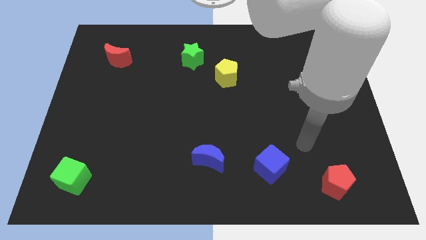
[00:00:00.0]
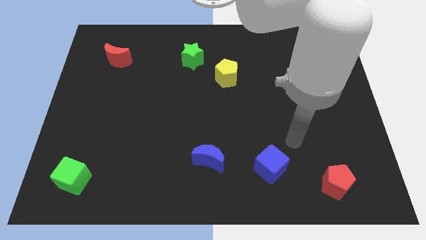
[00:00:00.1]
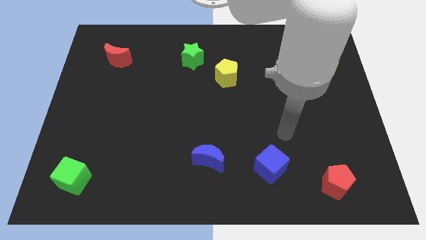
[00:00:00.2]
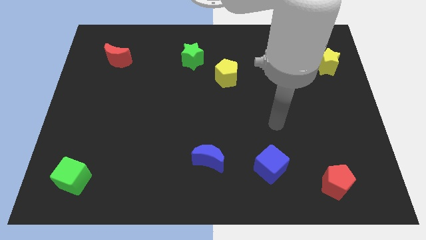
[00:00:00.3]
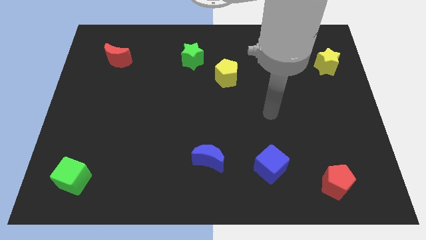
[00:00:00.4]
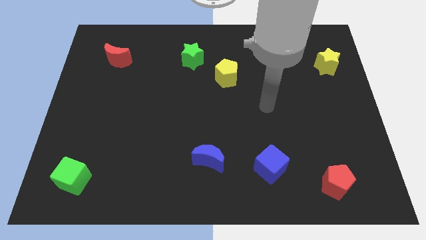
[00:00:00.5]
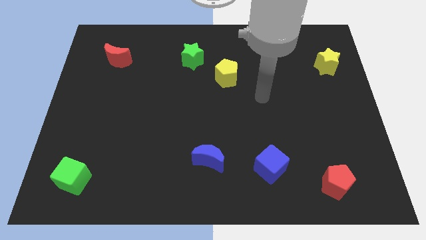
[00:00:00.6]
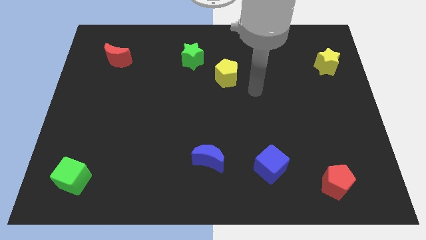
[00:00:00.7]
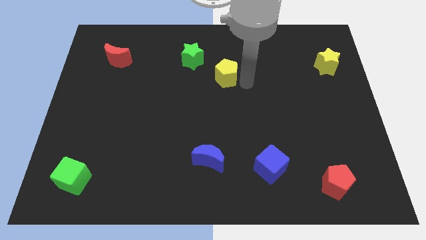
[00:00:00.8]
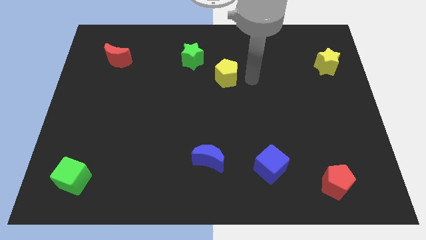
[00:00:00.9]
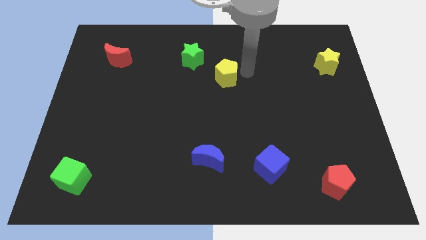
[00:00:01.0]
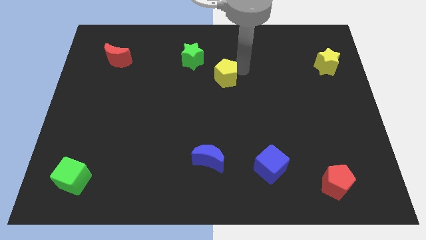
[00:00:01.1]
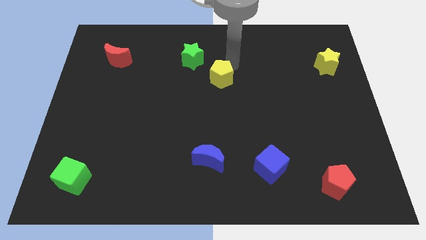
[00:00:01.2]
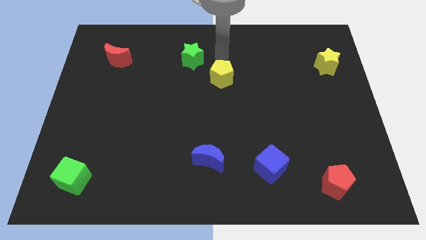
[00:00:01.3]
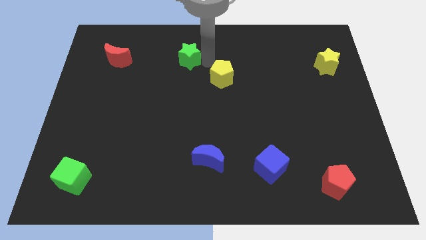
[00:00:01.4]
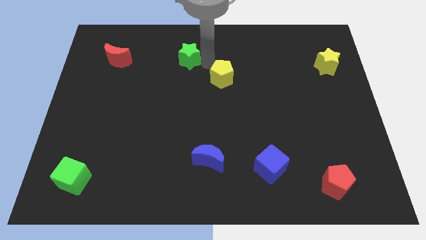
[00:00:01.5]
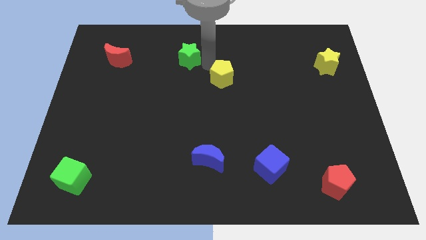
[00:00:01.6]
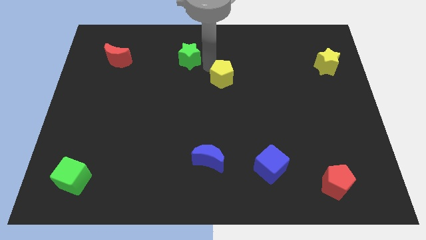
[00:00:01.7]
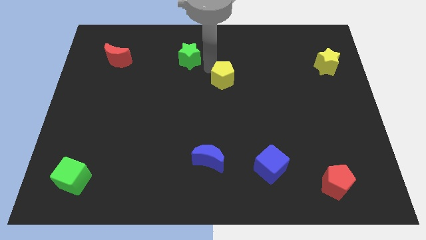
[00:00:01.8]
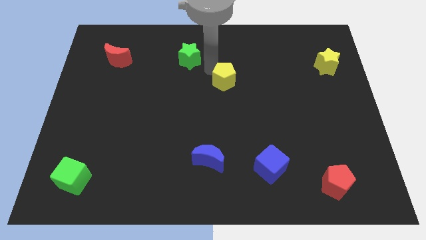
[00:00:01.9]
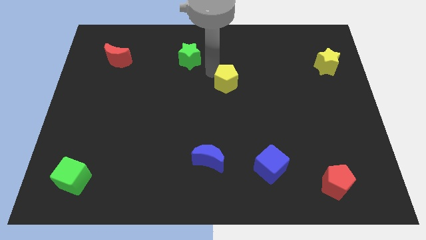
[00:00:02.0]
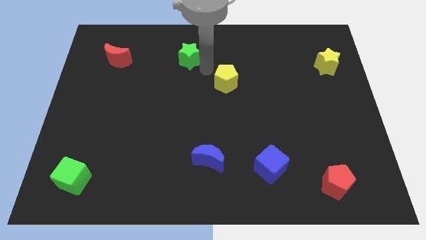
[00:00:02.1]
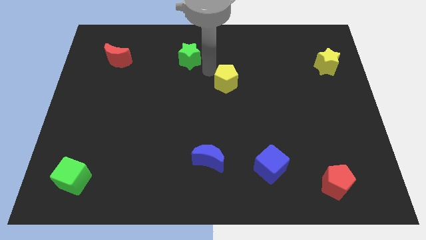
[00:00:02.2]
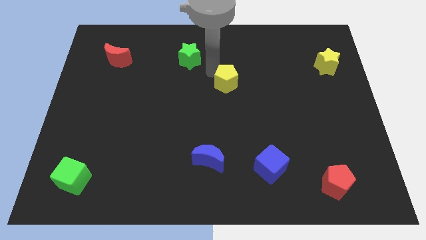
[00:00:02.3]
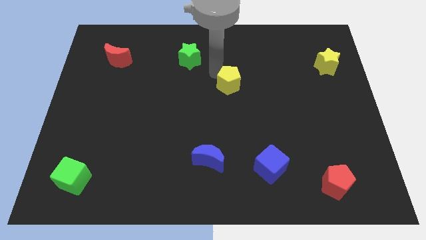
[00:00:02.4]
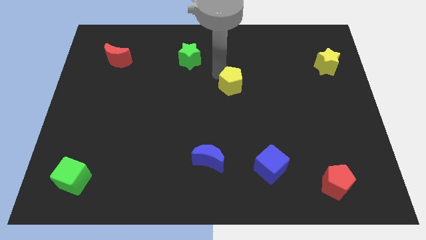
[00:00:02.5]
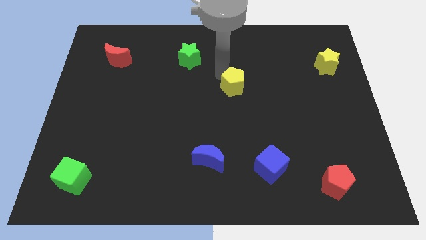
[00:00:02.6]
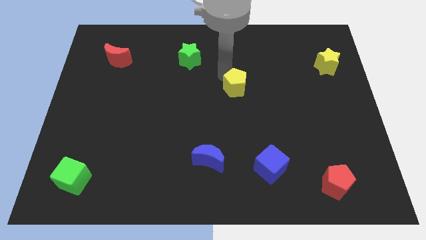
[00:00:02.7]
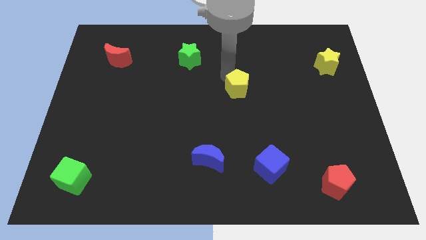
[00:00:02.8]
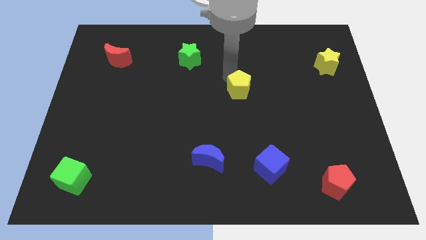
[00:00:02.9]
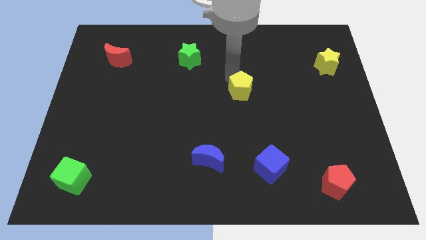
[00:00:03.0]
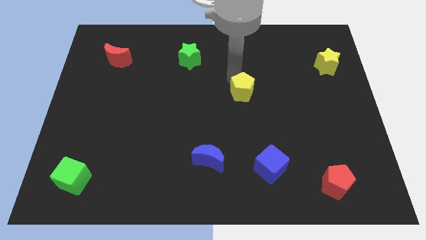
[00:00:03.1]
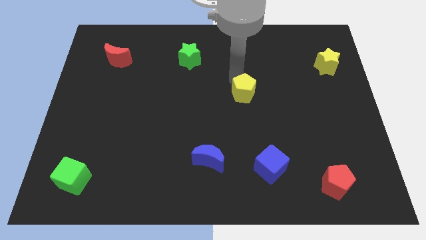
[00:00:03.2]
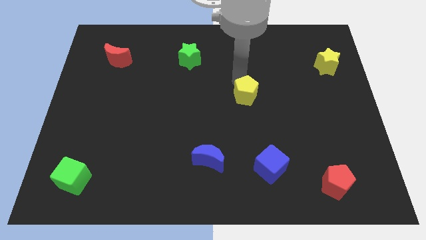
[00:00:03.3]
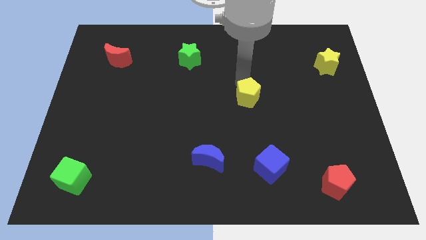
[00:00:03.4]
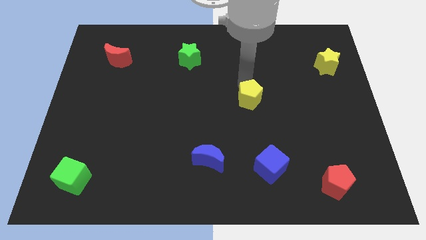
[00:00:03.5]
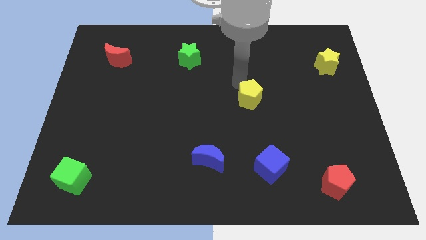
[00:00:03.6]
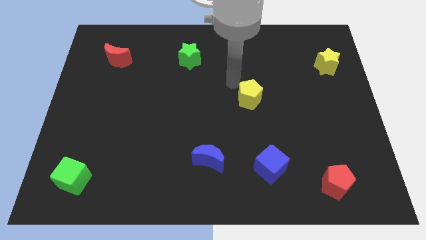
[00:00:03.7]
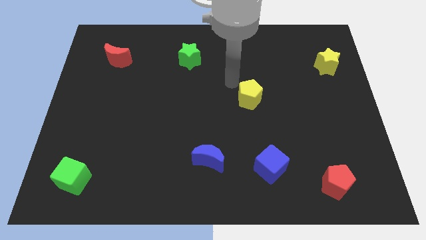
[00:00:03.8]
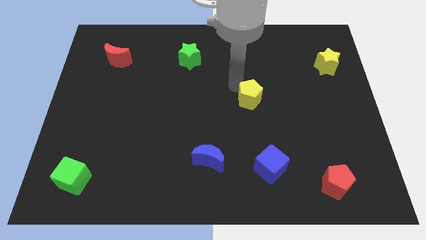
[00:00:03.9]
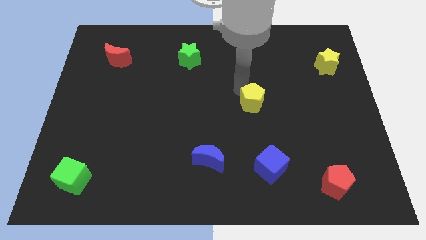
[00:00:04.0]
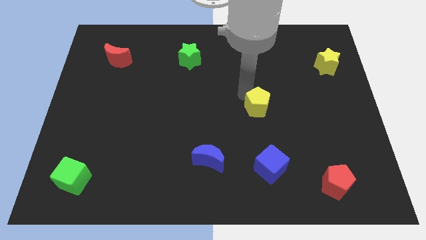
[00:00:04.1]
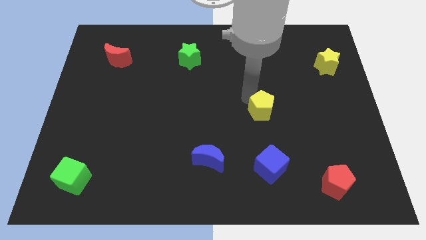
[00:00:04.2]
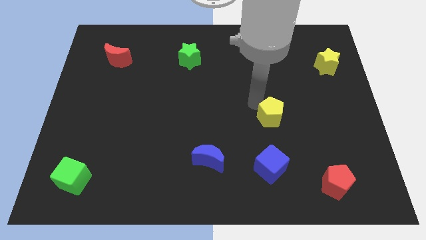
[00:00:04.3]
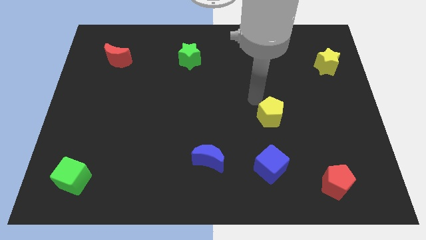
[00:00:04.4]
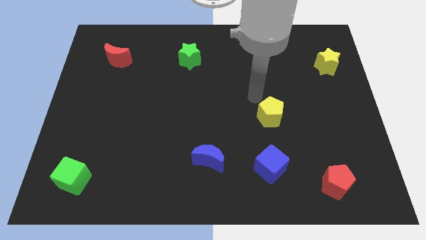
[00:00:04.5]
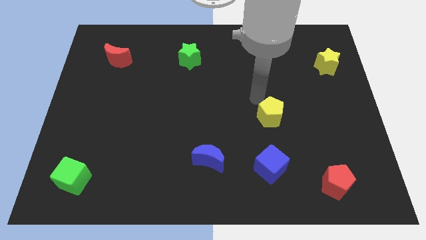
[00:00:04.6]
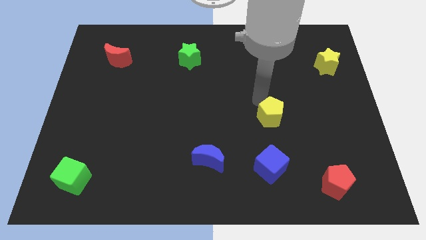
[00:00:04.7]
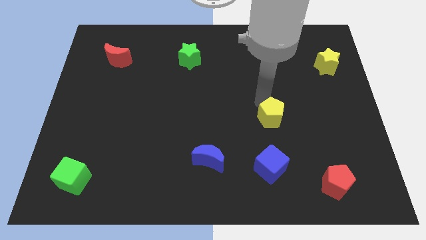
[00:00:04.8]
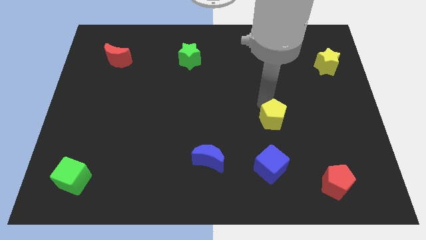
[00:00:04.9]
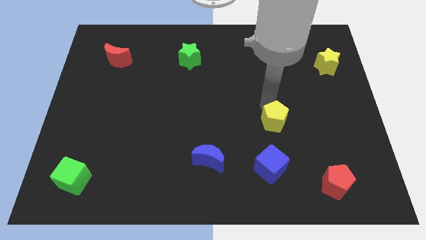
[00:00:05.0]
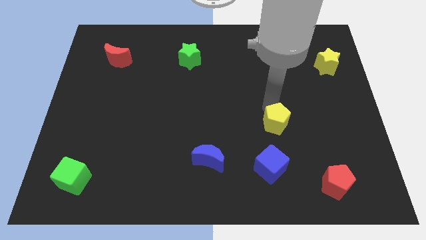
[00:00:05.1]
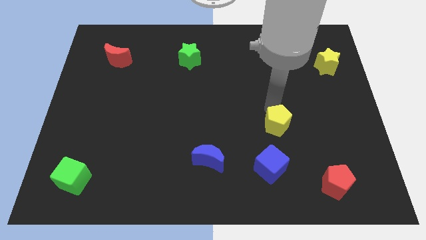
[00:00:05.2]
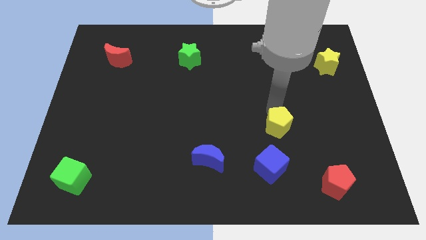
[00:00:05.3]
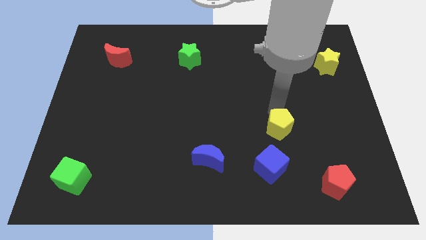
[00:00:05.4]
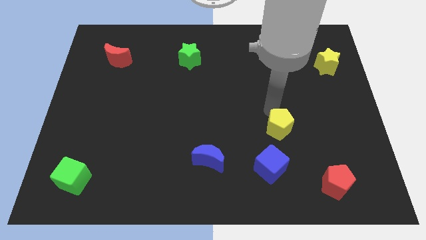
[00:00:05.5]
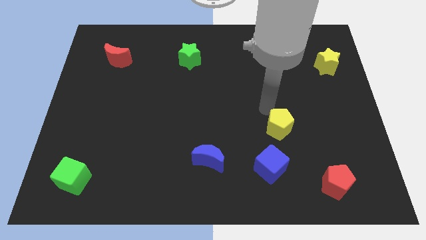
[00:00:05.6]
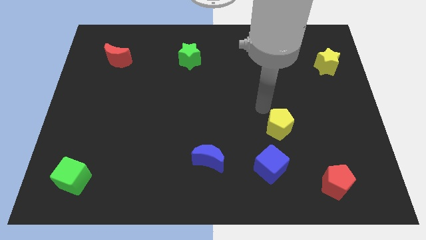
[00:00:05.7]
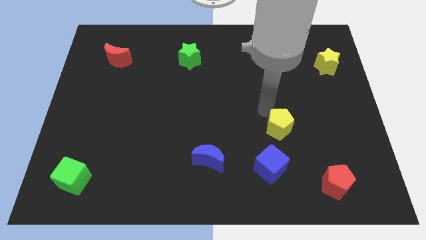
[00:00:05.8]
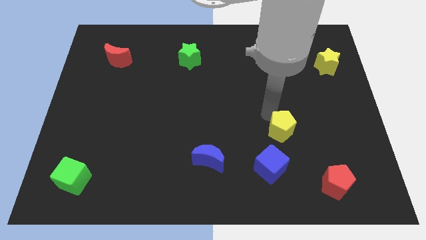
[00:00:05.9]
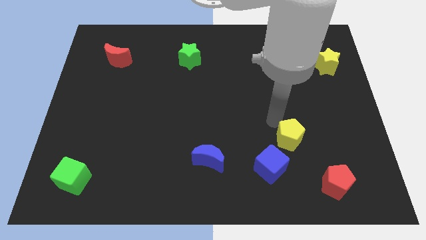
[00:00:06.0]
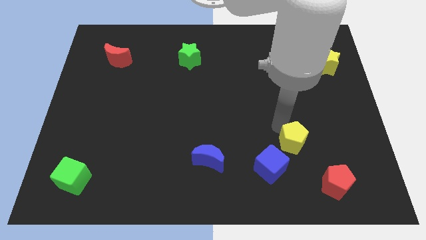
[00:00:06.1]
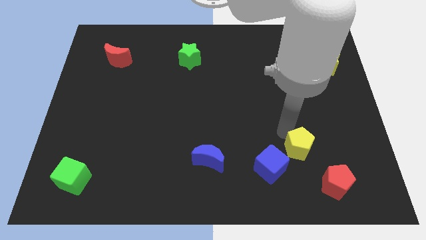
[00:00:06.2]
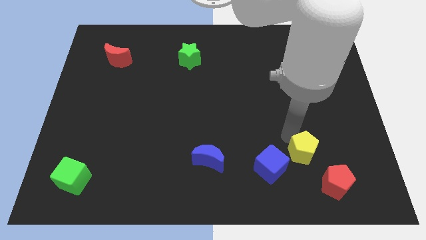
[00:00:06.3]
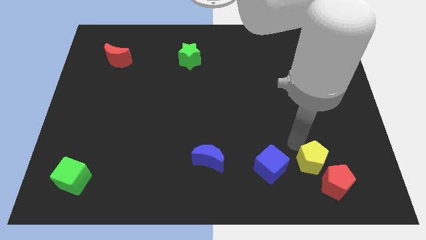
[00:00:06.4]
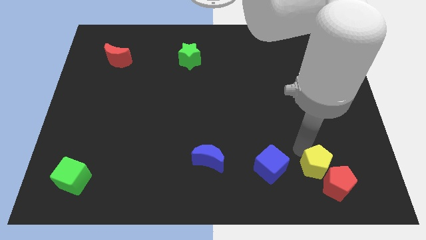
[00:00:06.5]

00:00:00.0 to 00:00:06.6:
slide the yellow pentagon next to the red pentagon

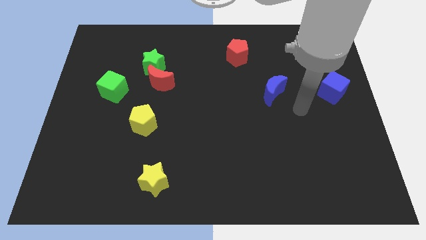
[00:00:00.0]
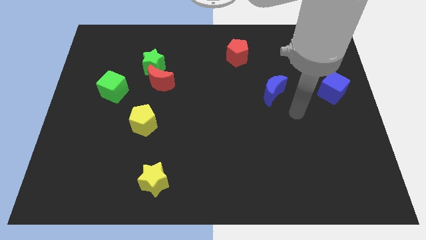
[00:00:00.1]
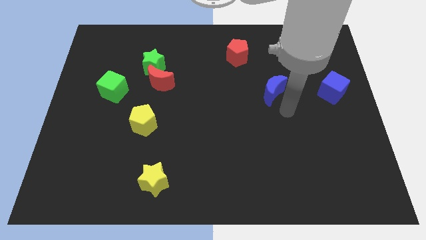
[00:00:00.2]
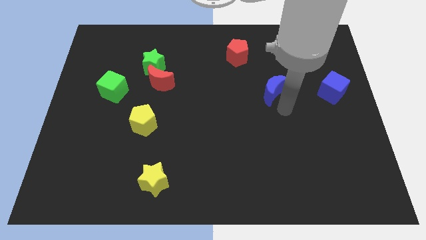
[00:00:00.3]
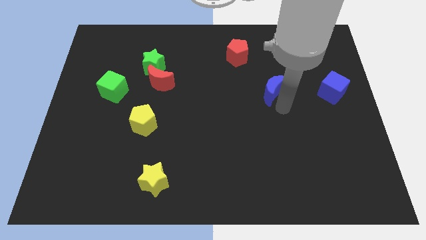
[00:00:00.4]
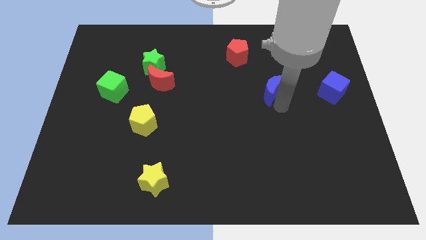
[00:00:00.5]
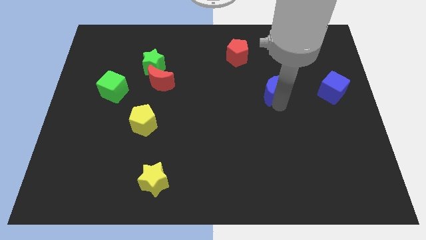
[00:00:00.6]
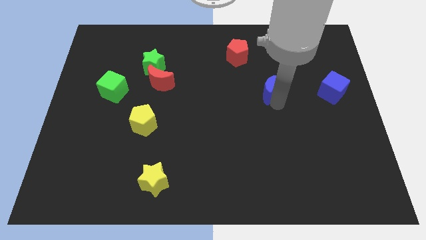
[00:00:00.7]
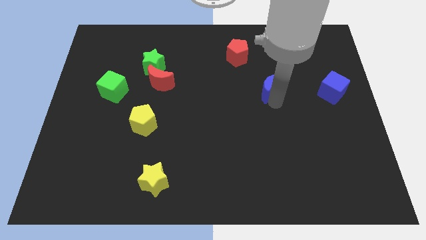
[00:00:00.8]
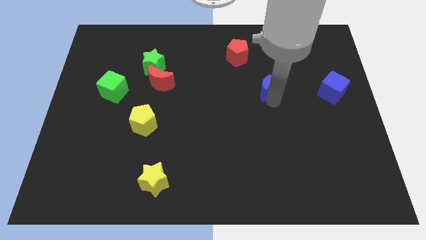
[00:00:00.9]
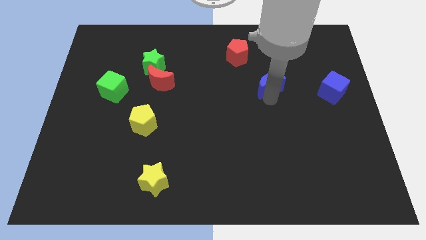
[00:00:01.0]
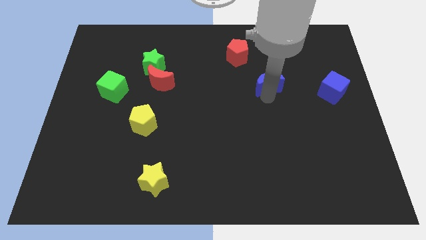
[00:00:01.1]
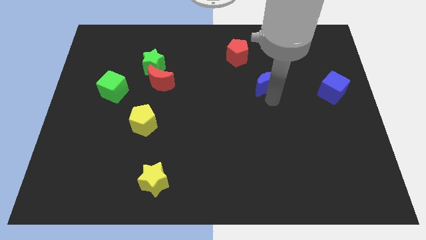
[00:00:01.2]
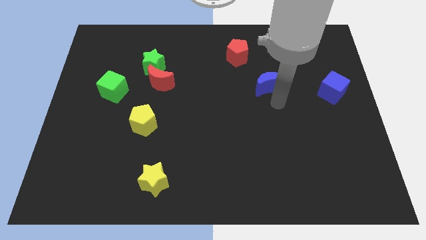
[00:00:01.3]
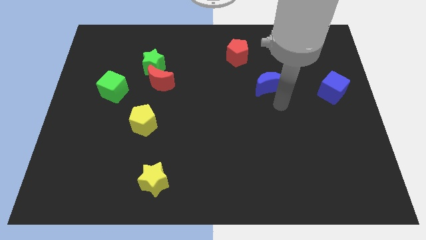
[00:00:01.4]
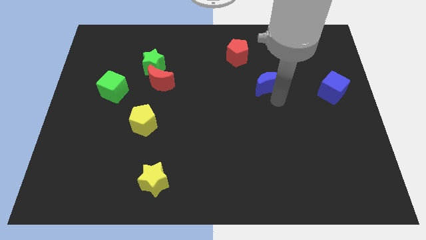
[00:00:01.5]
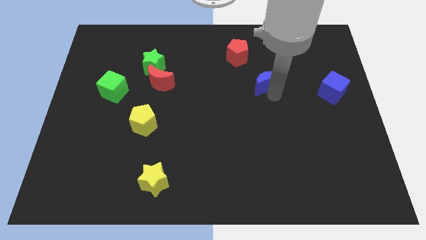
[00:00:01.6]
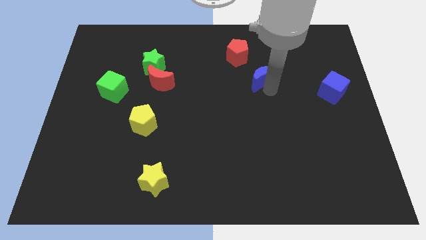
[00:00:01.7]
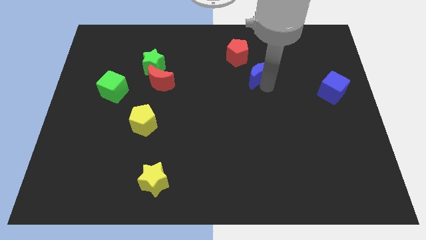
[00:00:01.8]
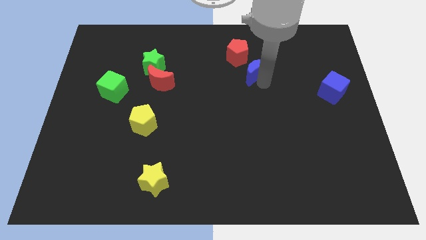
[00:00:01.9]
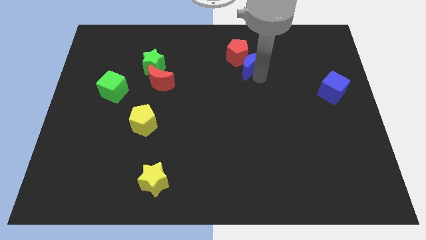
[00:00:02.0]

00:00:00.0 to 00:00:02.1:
put the blue moon close to the red pentagon
